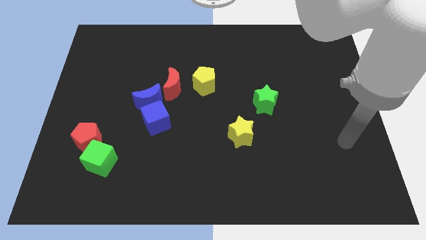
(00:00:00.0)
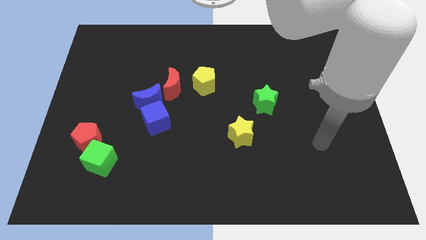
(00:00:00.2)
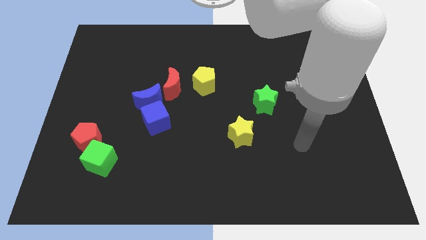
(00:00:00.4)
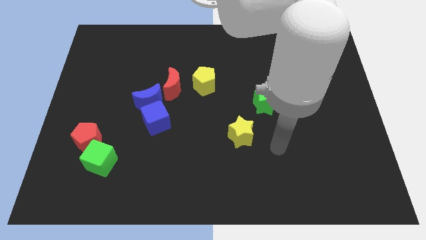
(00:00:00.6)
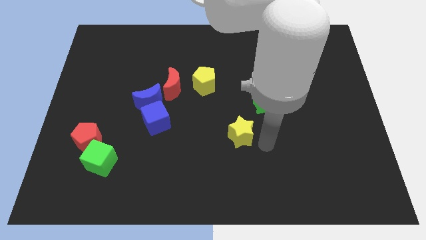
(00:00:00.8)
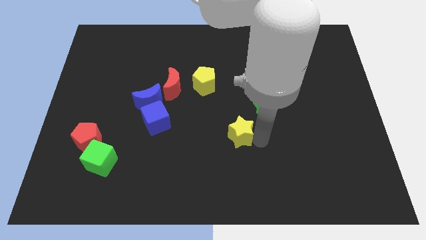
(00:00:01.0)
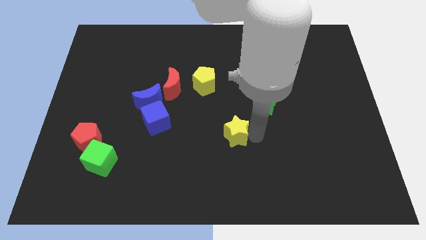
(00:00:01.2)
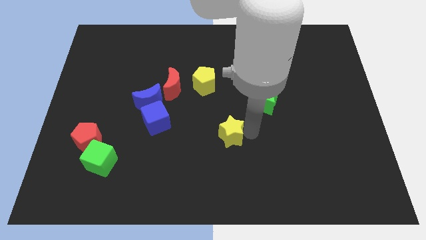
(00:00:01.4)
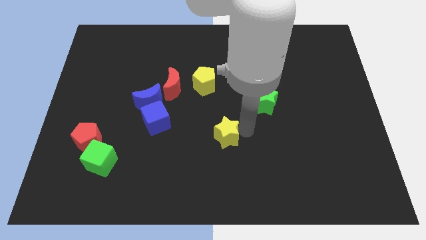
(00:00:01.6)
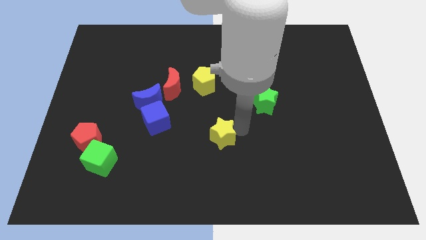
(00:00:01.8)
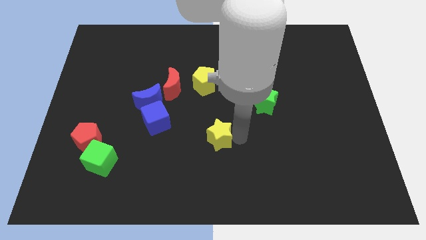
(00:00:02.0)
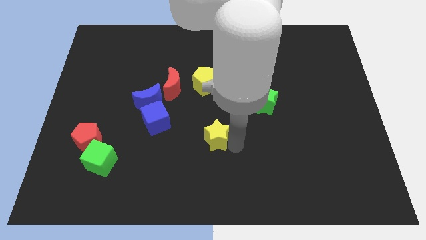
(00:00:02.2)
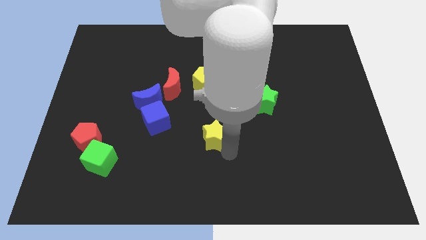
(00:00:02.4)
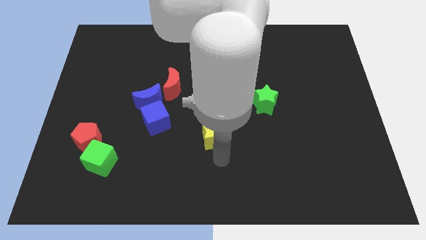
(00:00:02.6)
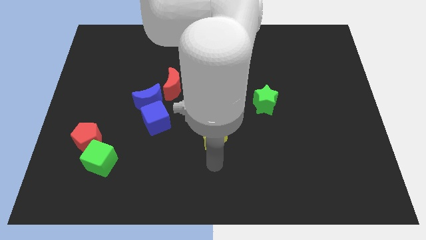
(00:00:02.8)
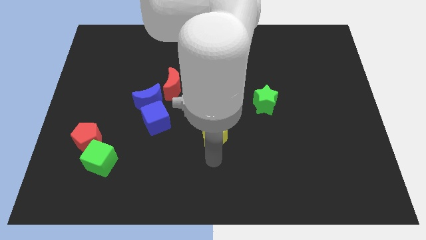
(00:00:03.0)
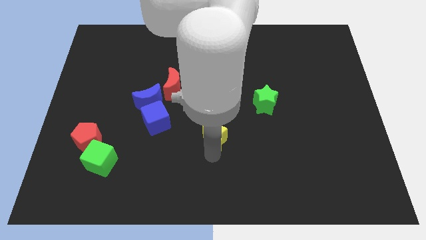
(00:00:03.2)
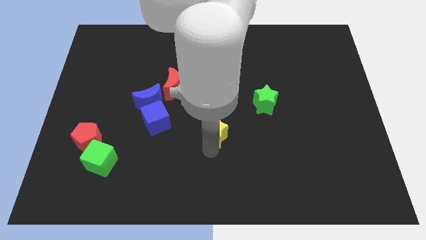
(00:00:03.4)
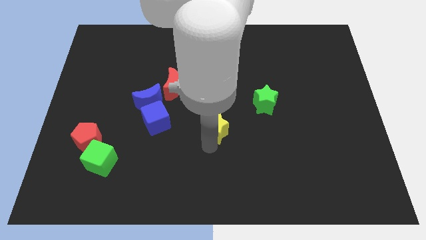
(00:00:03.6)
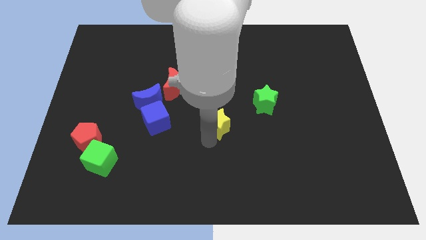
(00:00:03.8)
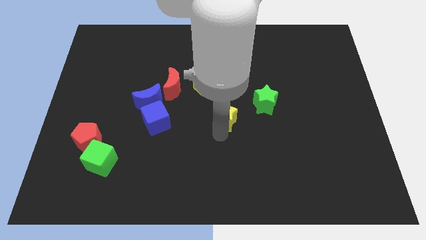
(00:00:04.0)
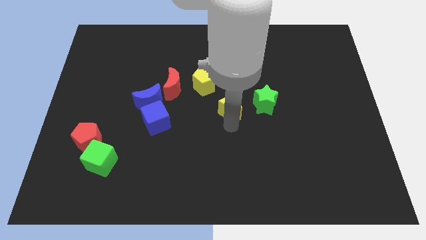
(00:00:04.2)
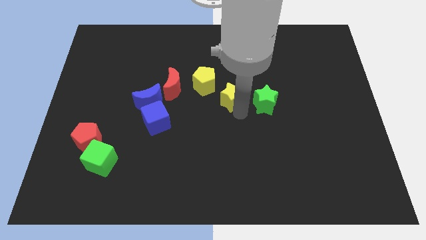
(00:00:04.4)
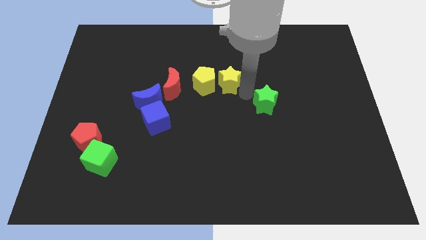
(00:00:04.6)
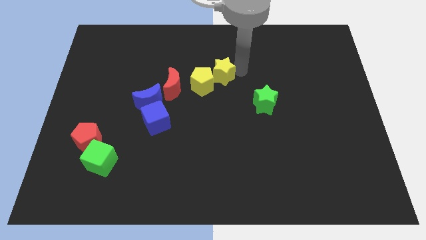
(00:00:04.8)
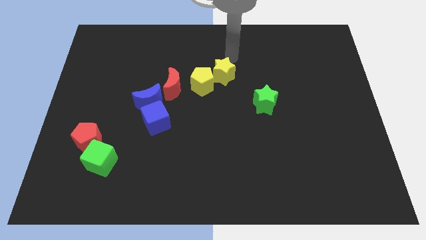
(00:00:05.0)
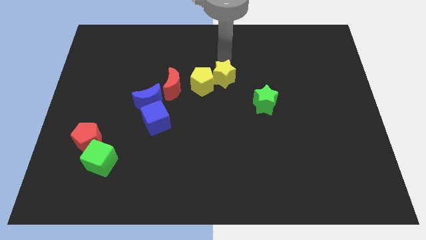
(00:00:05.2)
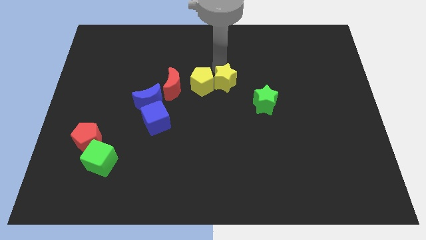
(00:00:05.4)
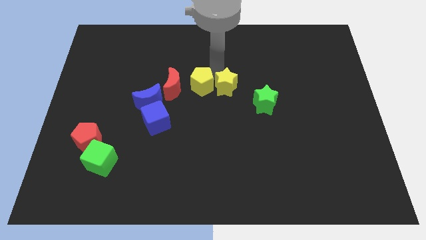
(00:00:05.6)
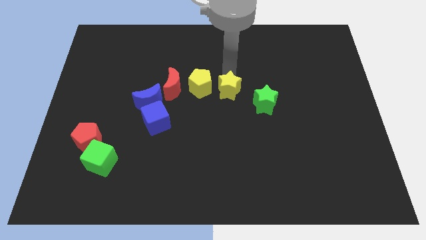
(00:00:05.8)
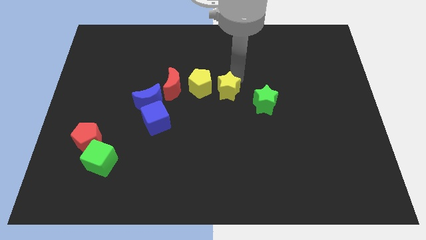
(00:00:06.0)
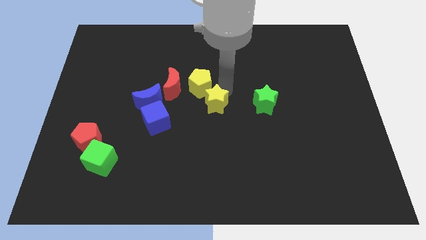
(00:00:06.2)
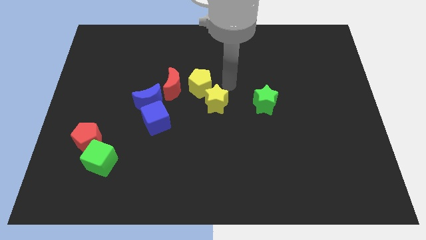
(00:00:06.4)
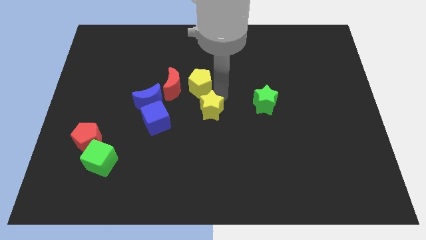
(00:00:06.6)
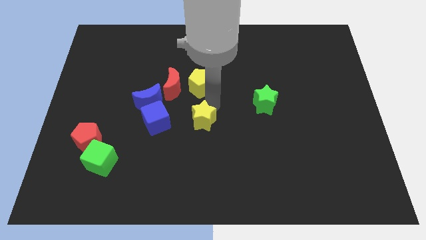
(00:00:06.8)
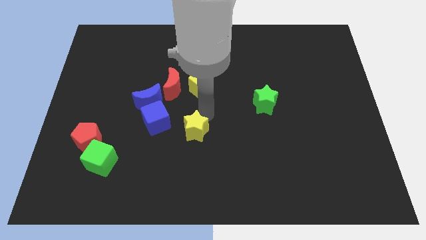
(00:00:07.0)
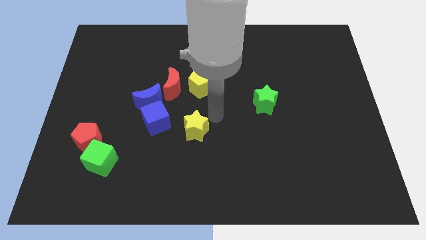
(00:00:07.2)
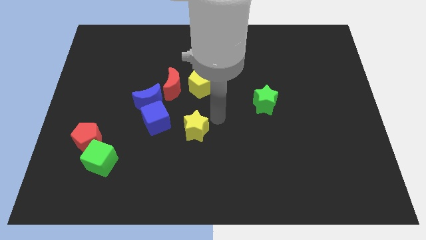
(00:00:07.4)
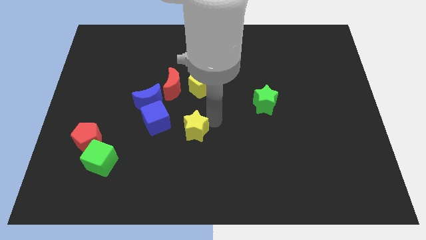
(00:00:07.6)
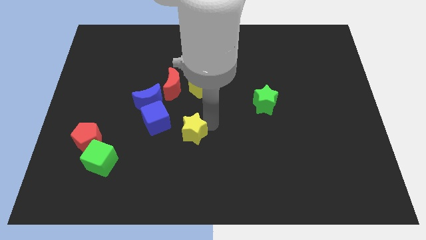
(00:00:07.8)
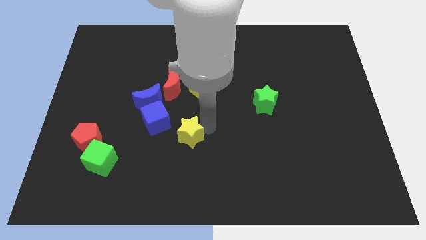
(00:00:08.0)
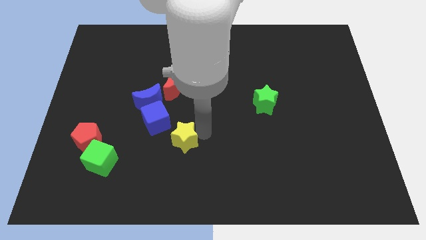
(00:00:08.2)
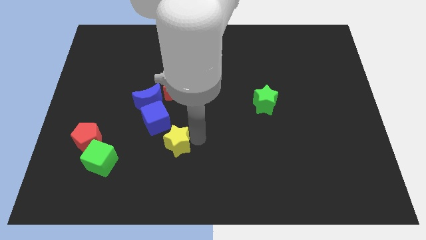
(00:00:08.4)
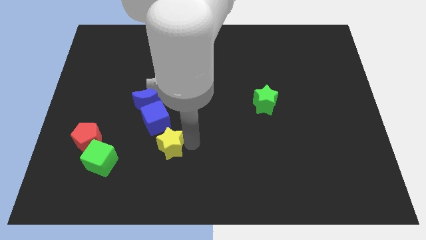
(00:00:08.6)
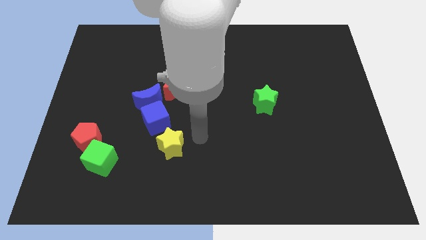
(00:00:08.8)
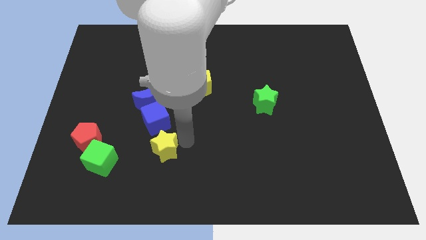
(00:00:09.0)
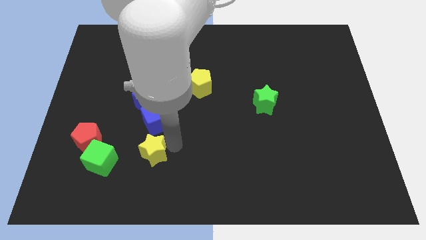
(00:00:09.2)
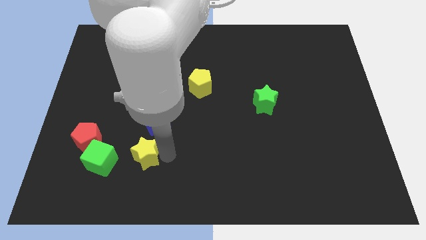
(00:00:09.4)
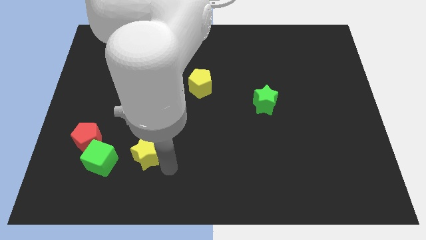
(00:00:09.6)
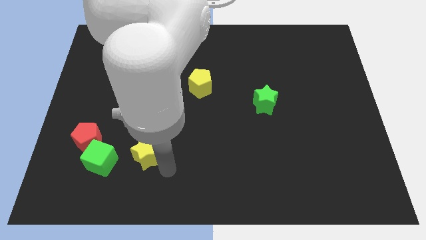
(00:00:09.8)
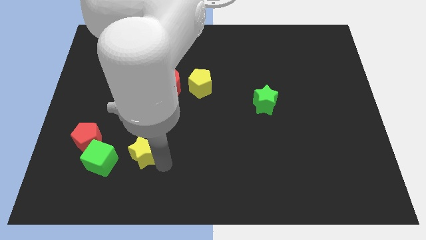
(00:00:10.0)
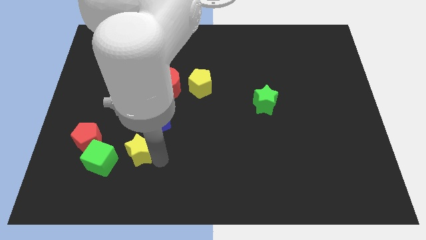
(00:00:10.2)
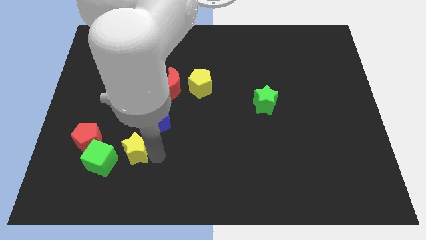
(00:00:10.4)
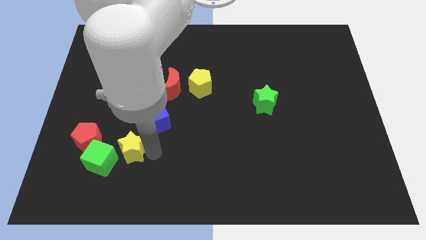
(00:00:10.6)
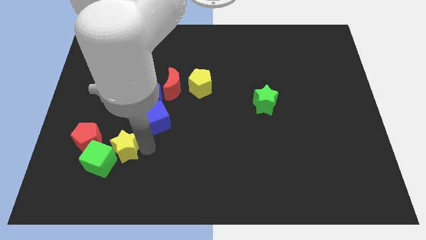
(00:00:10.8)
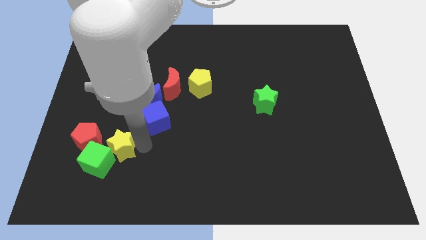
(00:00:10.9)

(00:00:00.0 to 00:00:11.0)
put the yellow star to the top side of the green cube

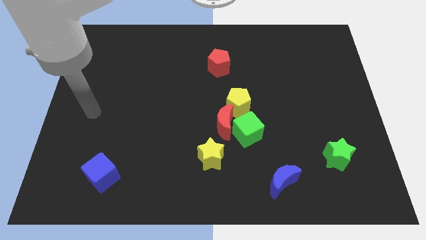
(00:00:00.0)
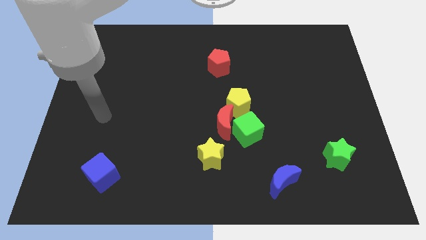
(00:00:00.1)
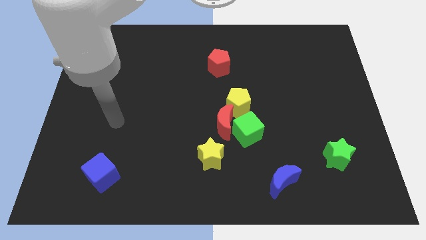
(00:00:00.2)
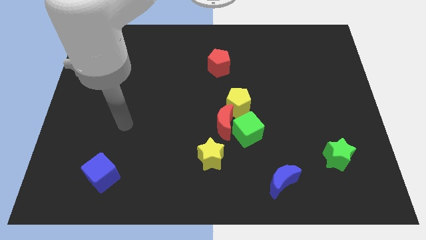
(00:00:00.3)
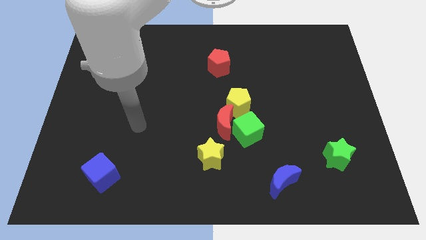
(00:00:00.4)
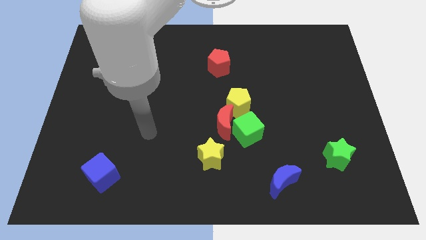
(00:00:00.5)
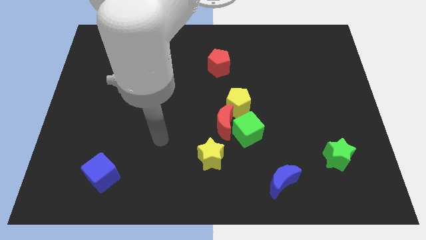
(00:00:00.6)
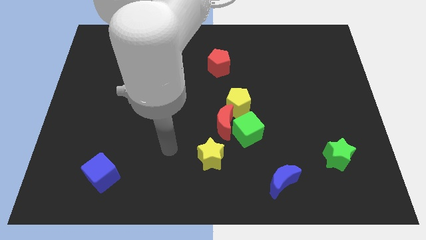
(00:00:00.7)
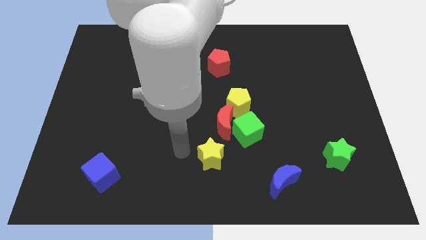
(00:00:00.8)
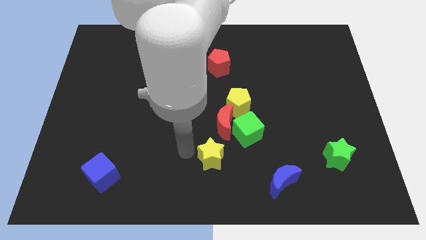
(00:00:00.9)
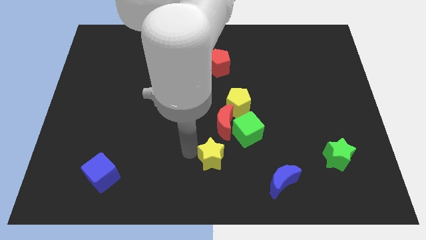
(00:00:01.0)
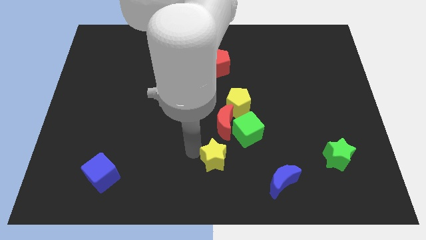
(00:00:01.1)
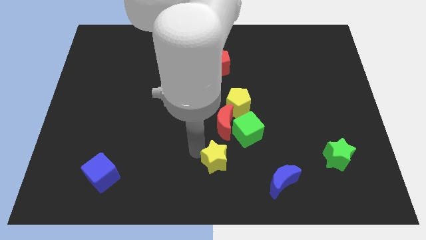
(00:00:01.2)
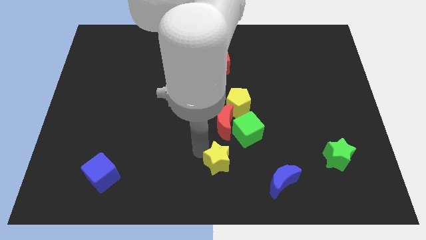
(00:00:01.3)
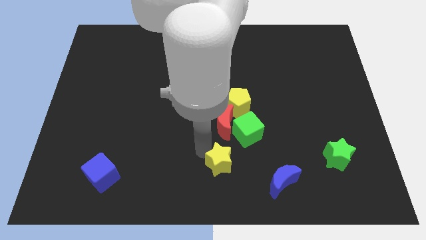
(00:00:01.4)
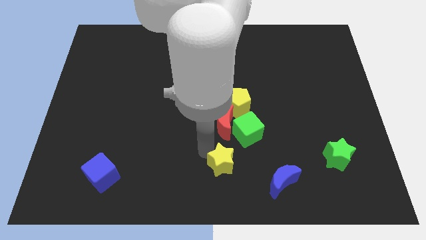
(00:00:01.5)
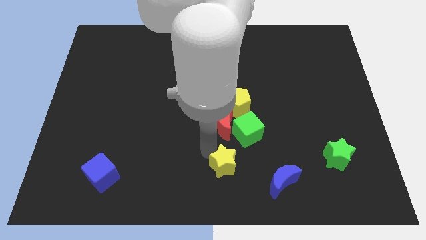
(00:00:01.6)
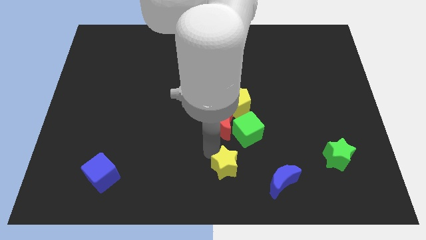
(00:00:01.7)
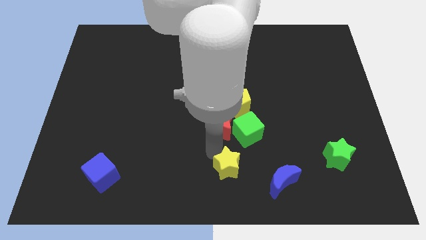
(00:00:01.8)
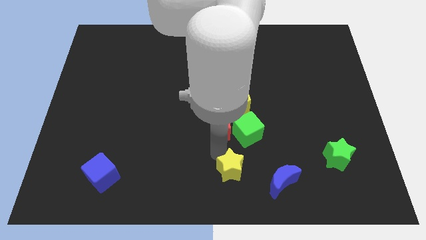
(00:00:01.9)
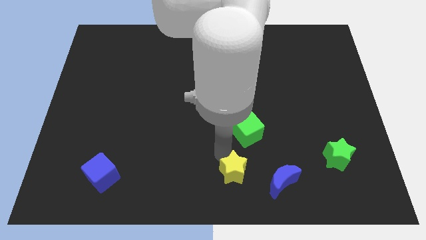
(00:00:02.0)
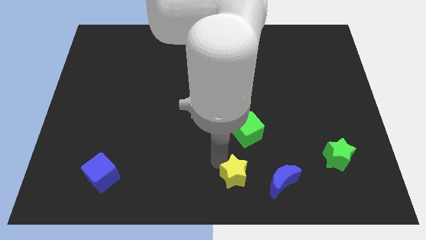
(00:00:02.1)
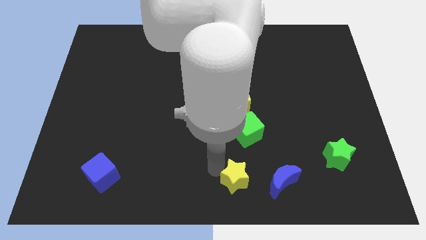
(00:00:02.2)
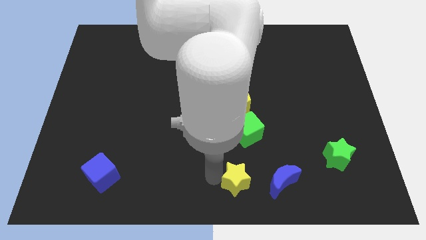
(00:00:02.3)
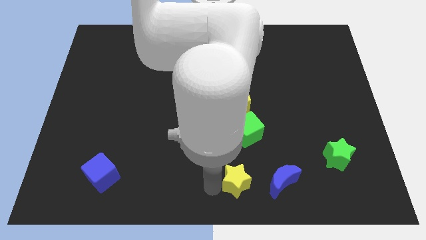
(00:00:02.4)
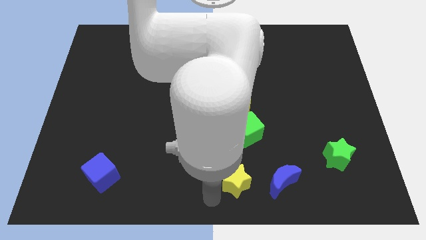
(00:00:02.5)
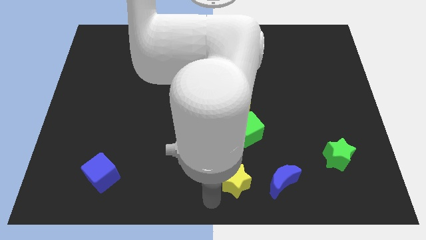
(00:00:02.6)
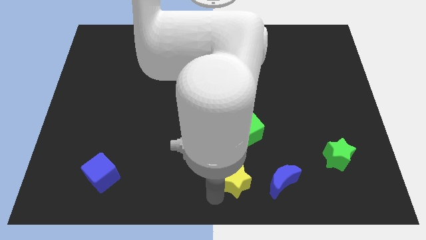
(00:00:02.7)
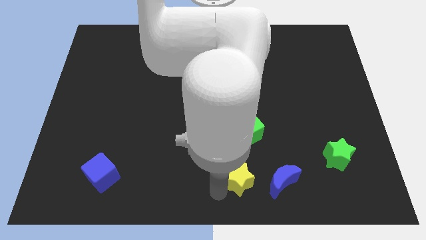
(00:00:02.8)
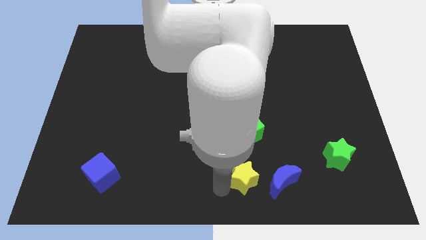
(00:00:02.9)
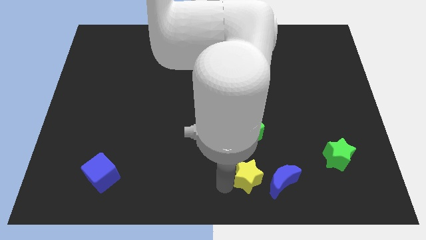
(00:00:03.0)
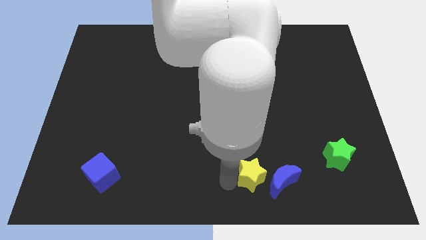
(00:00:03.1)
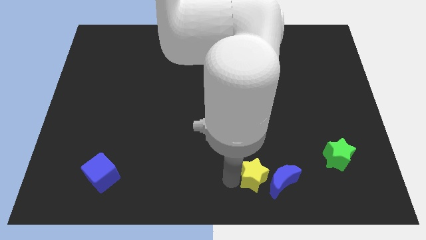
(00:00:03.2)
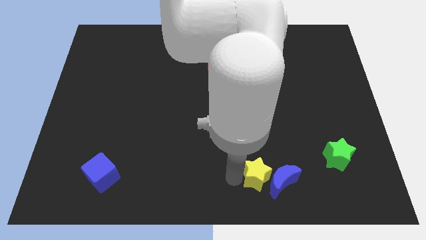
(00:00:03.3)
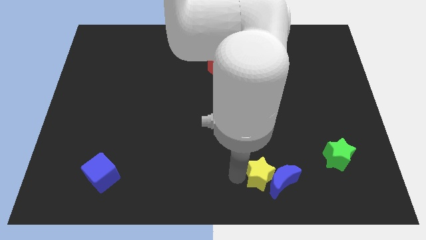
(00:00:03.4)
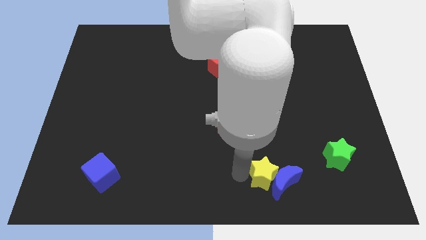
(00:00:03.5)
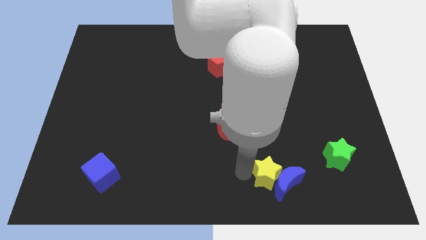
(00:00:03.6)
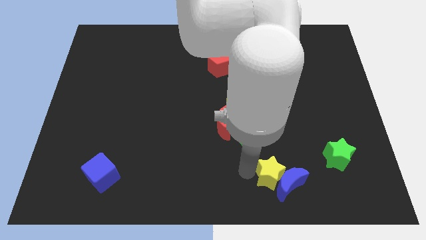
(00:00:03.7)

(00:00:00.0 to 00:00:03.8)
slide the yellow star diagonally down and to the right of the green cube
